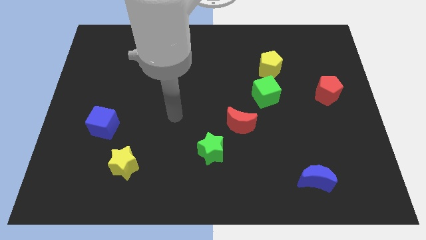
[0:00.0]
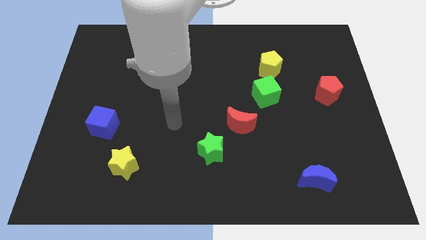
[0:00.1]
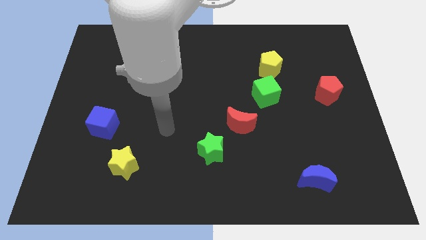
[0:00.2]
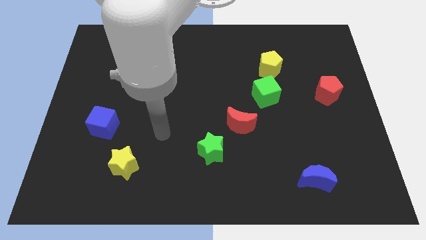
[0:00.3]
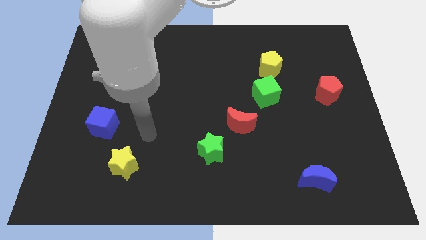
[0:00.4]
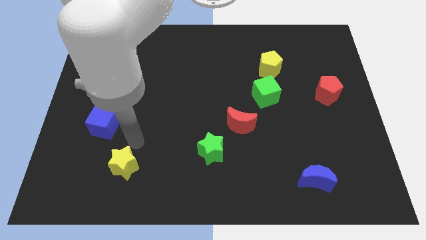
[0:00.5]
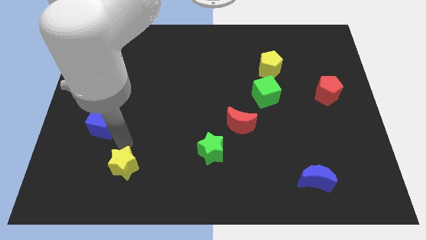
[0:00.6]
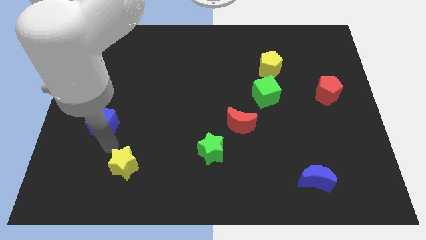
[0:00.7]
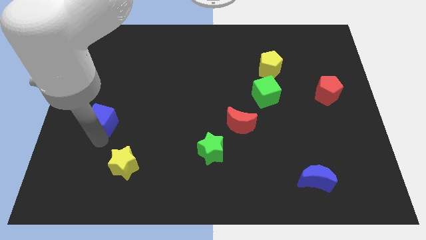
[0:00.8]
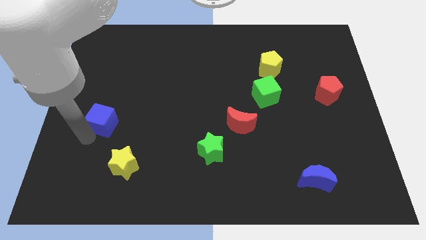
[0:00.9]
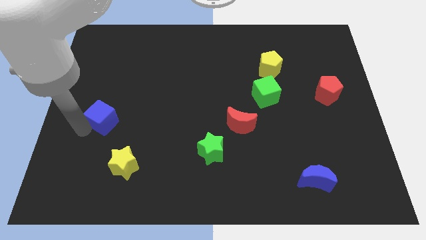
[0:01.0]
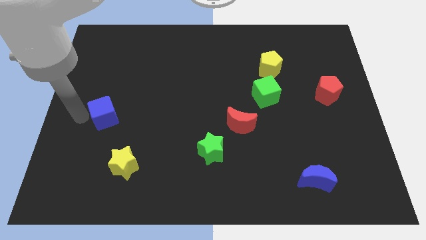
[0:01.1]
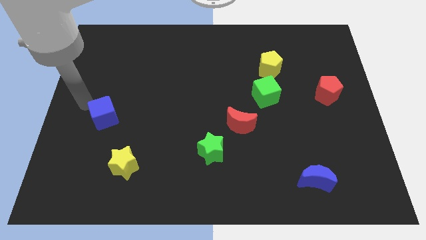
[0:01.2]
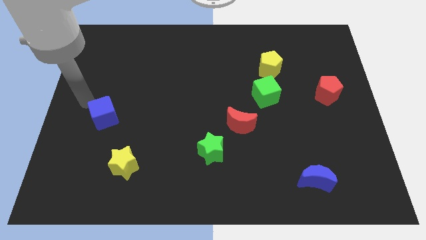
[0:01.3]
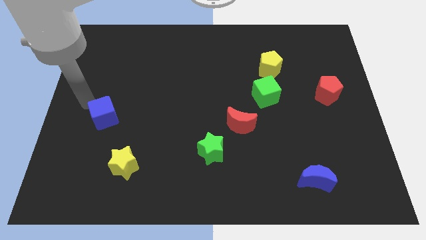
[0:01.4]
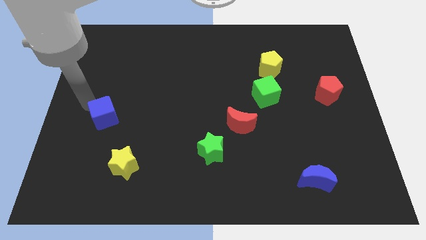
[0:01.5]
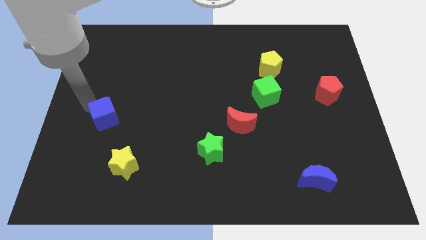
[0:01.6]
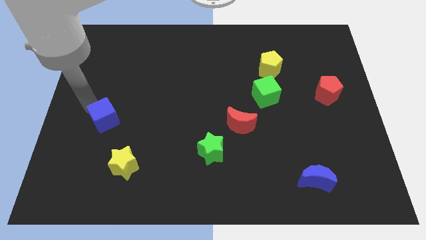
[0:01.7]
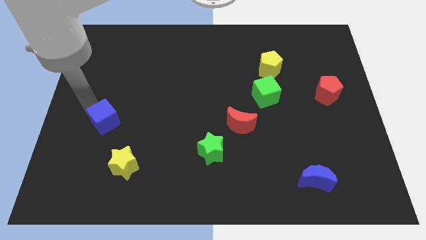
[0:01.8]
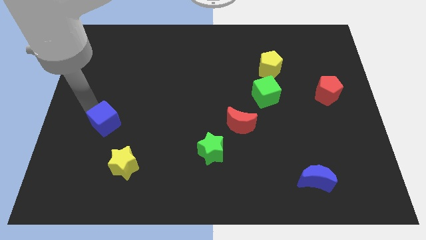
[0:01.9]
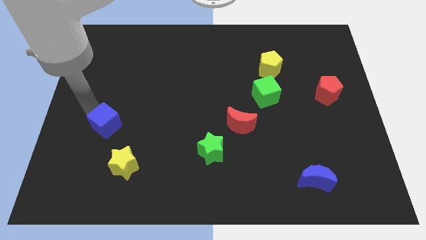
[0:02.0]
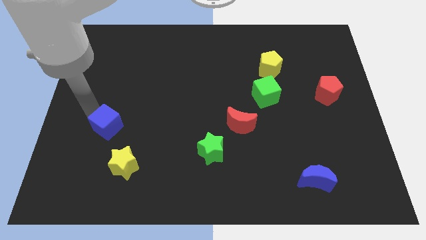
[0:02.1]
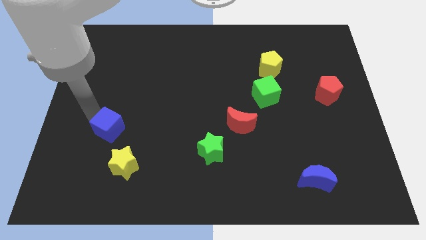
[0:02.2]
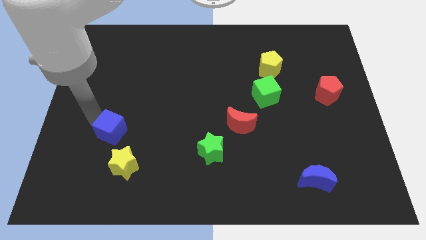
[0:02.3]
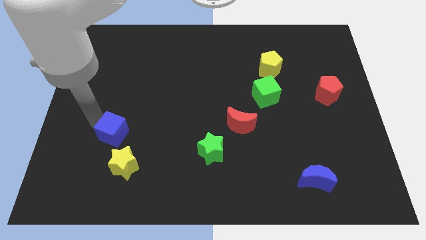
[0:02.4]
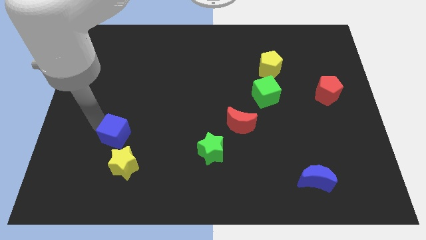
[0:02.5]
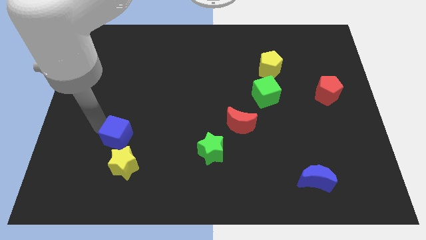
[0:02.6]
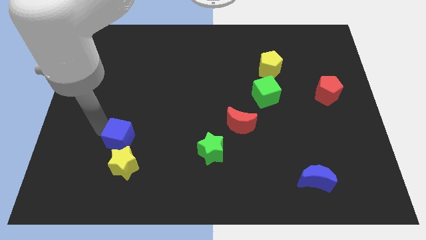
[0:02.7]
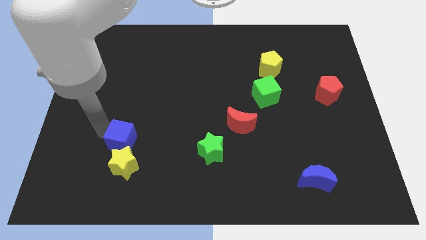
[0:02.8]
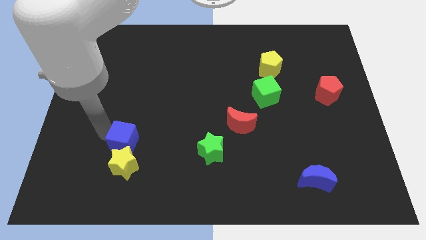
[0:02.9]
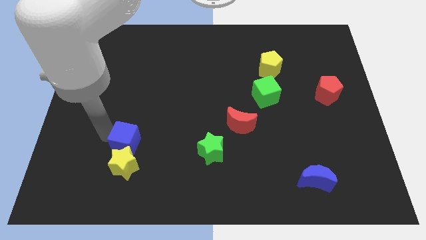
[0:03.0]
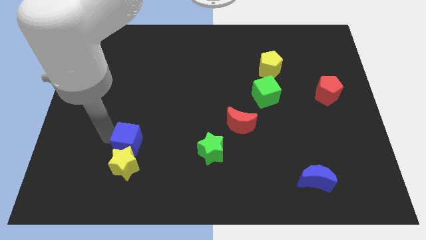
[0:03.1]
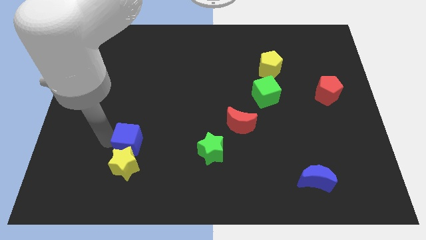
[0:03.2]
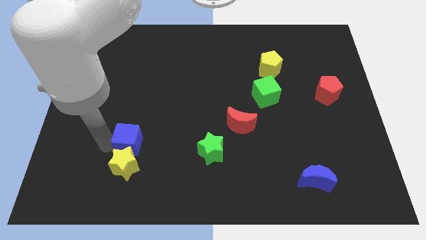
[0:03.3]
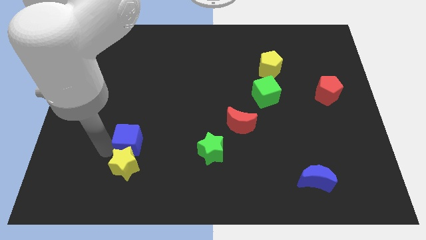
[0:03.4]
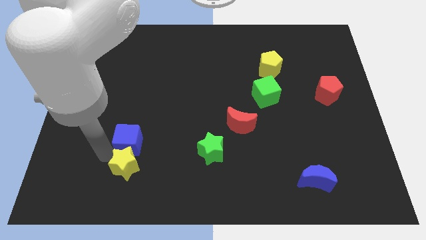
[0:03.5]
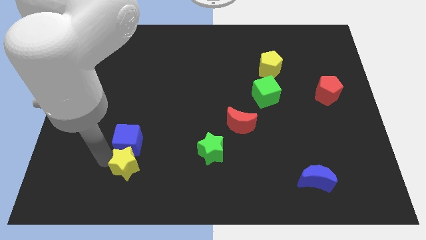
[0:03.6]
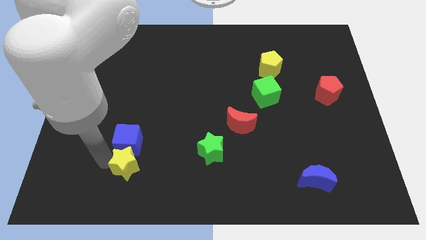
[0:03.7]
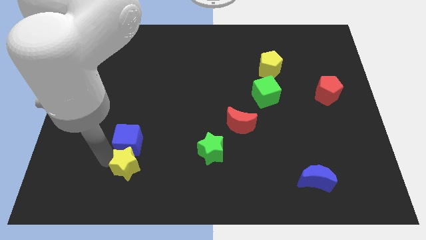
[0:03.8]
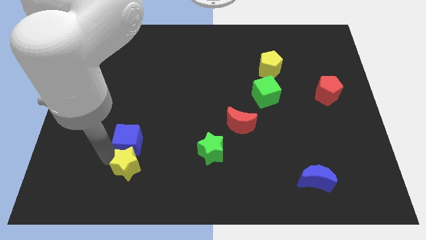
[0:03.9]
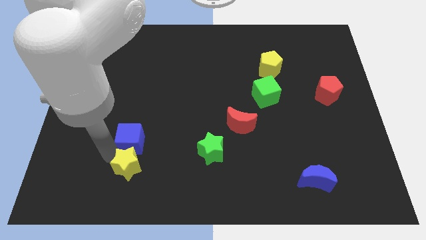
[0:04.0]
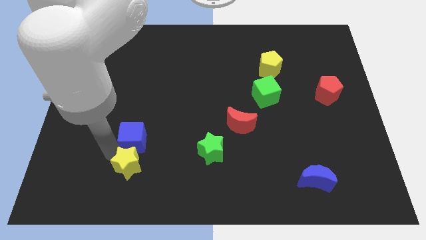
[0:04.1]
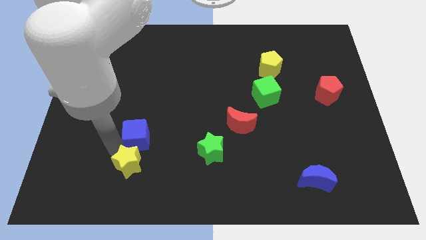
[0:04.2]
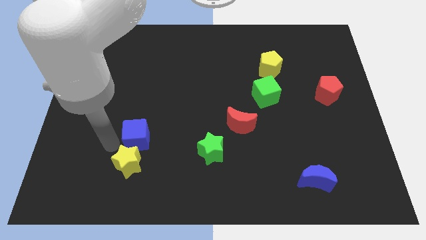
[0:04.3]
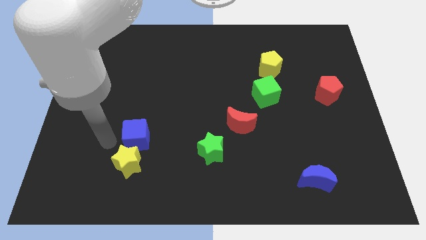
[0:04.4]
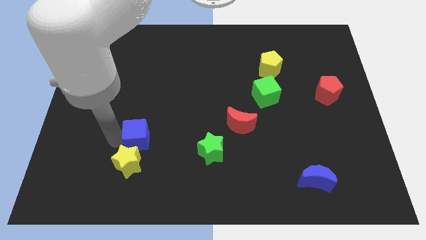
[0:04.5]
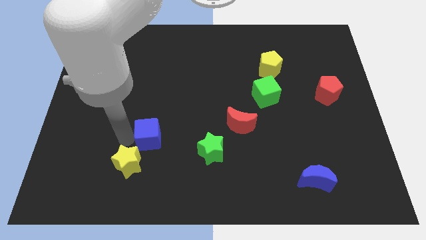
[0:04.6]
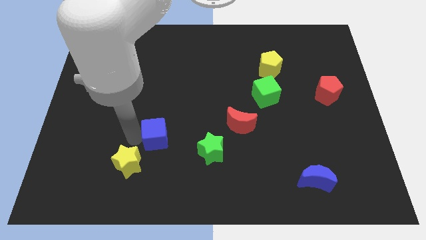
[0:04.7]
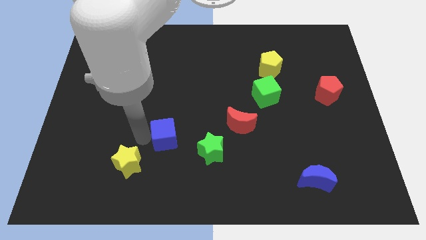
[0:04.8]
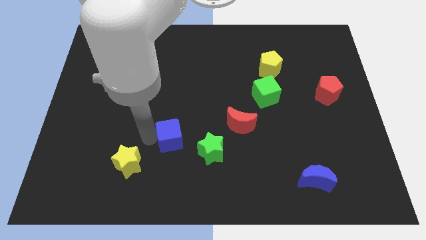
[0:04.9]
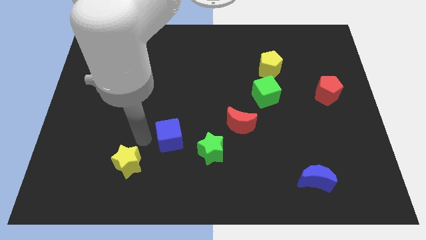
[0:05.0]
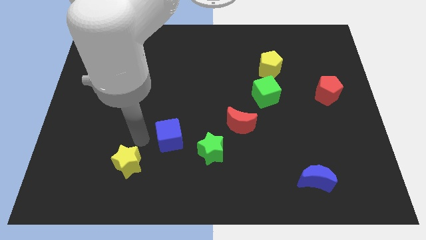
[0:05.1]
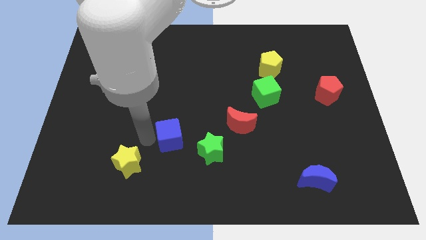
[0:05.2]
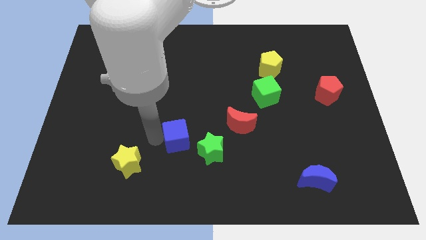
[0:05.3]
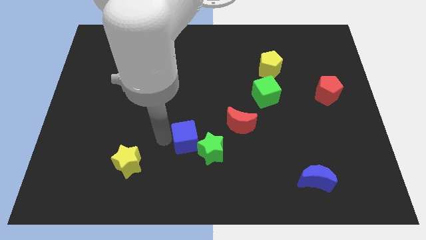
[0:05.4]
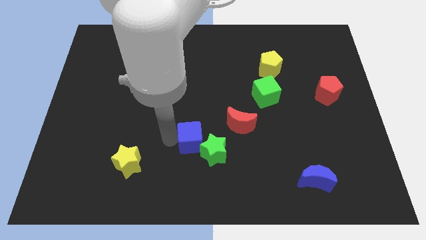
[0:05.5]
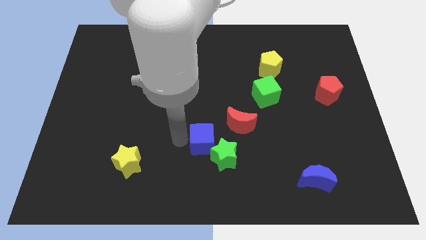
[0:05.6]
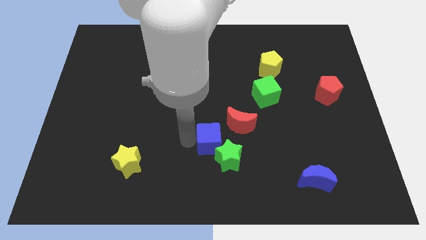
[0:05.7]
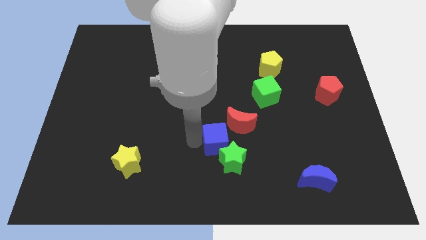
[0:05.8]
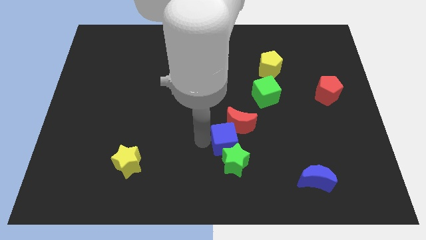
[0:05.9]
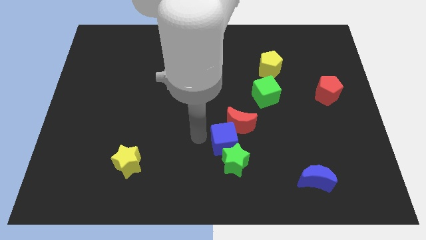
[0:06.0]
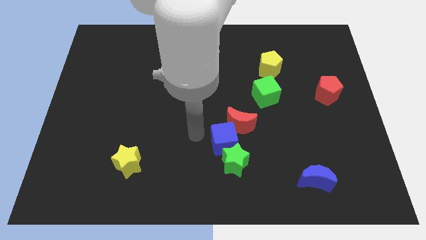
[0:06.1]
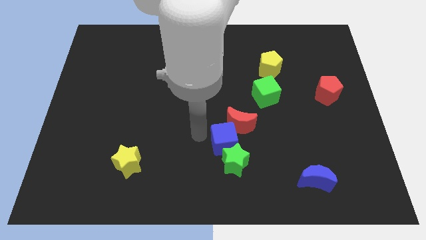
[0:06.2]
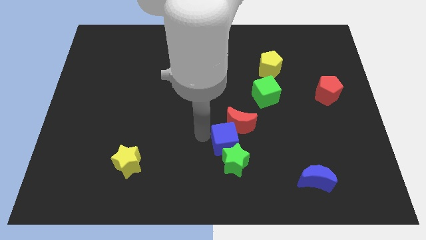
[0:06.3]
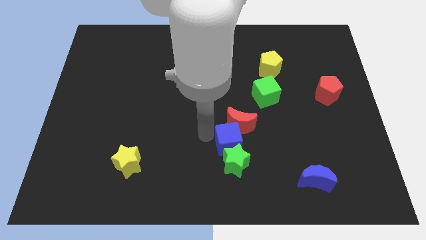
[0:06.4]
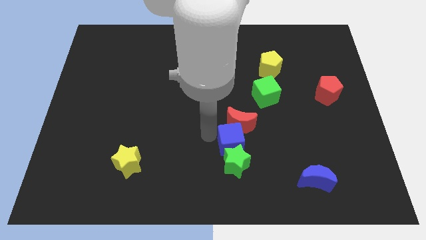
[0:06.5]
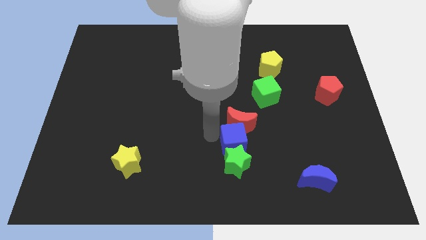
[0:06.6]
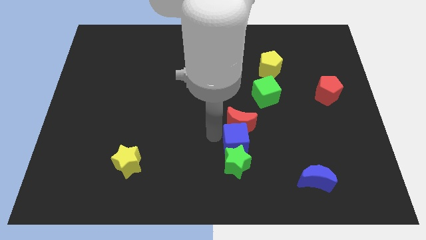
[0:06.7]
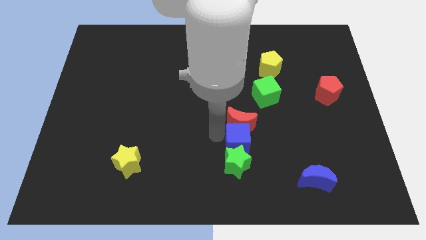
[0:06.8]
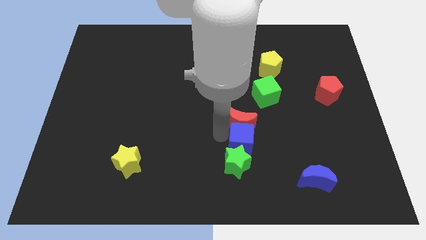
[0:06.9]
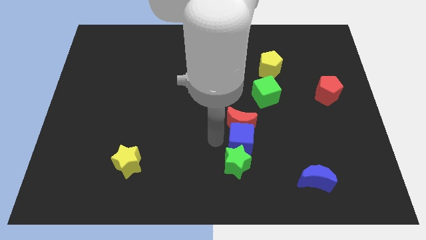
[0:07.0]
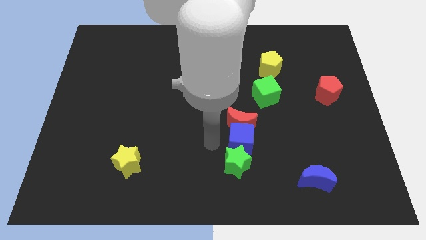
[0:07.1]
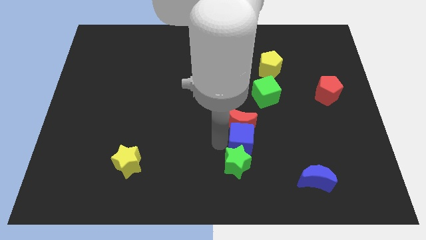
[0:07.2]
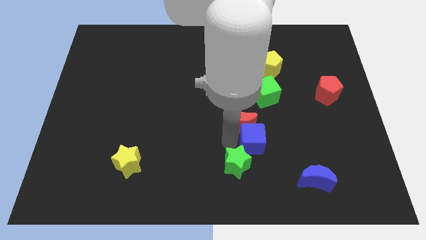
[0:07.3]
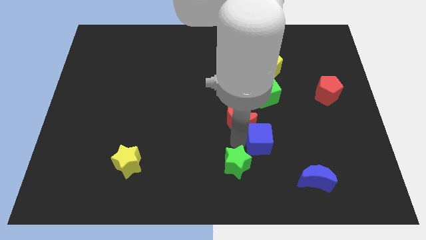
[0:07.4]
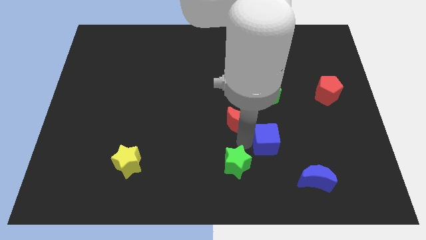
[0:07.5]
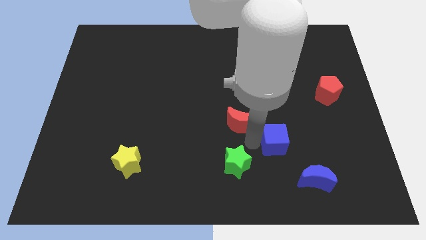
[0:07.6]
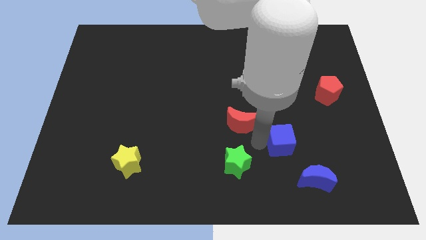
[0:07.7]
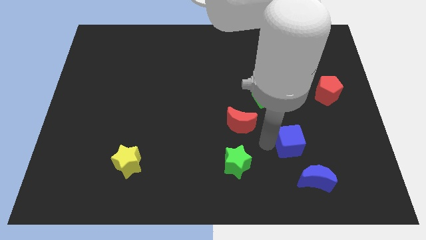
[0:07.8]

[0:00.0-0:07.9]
push the blue cube to the top side of the blue moon
